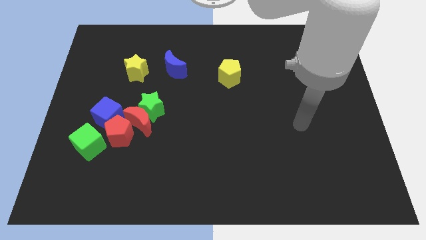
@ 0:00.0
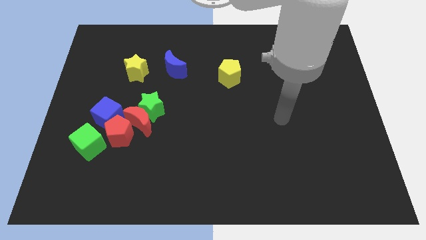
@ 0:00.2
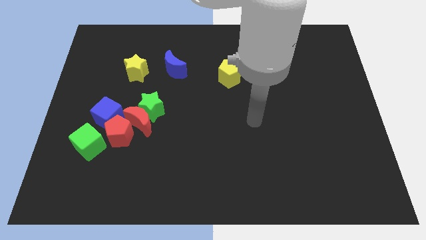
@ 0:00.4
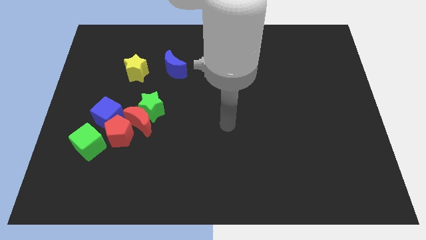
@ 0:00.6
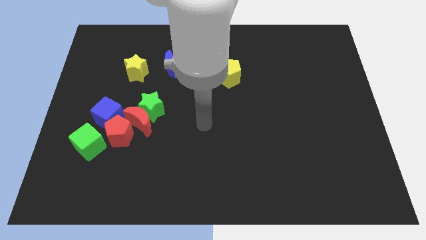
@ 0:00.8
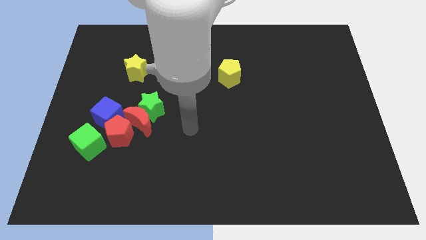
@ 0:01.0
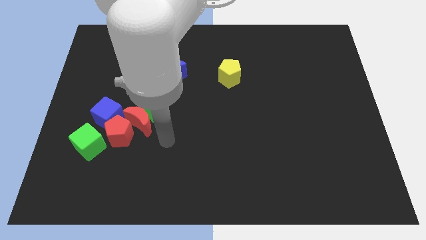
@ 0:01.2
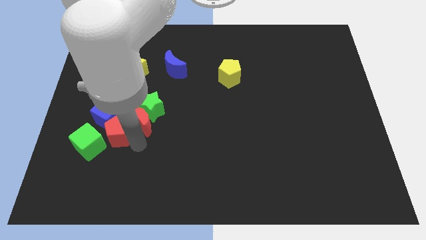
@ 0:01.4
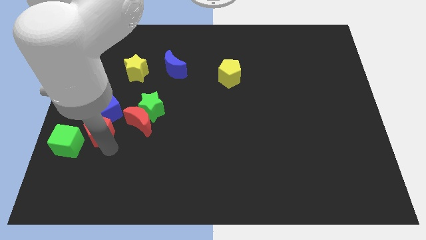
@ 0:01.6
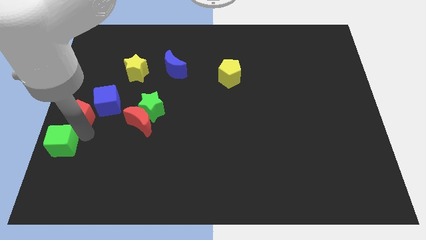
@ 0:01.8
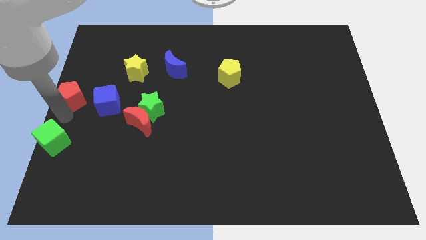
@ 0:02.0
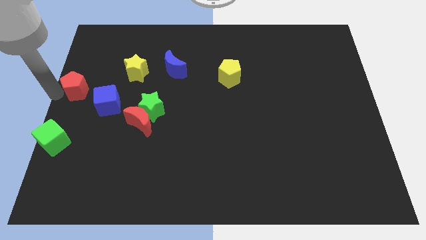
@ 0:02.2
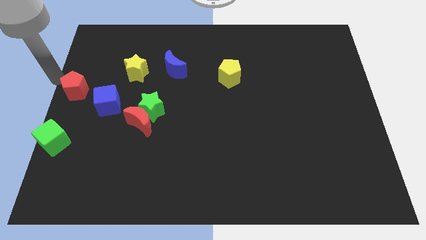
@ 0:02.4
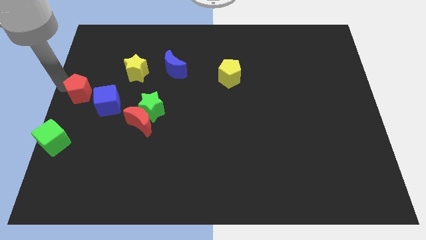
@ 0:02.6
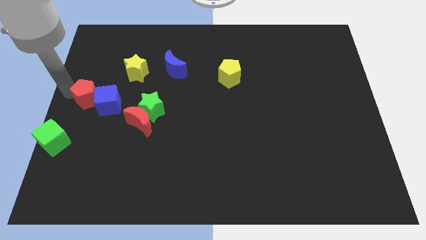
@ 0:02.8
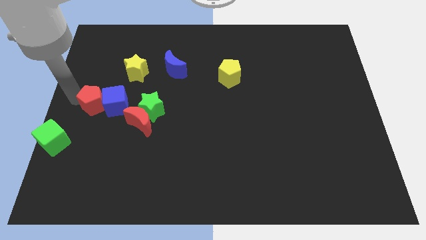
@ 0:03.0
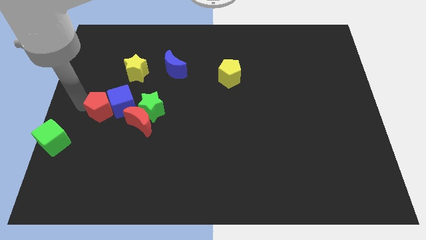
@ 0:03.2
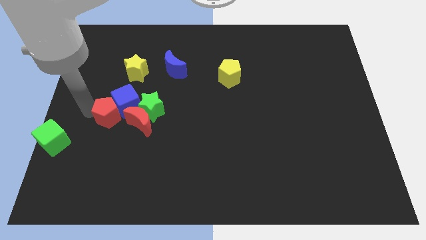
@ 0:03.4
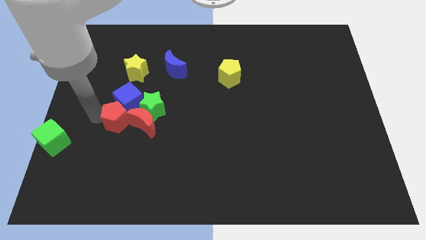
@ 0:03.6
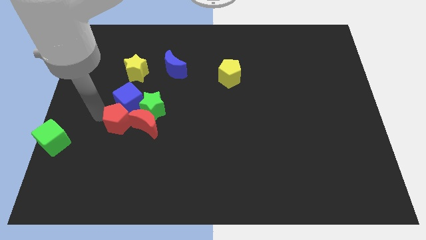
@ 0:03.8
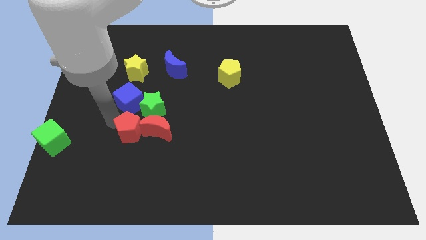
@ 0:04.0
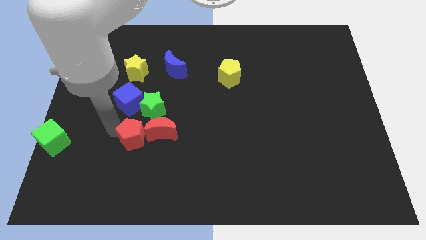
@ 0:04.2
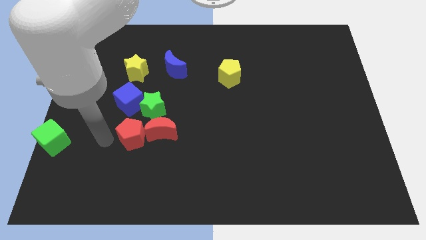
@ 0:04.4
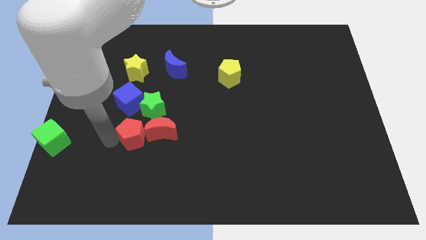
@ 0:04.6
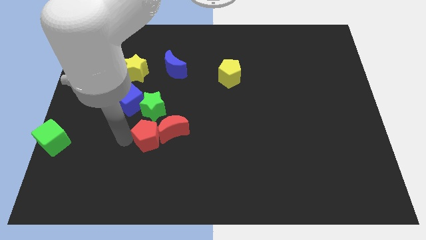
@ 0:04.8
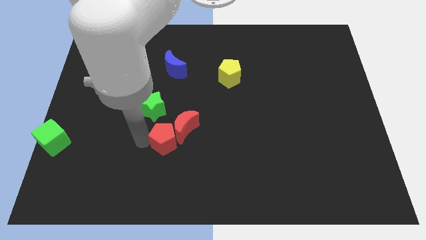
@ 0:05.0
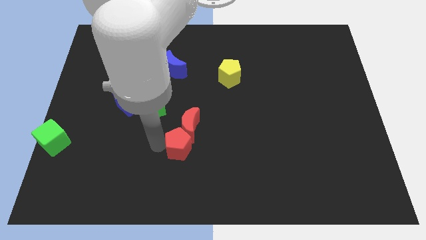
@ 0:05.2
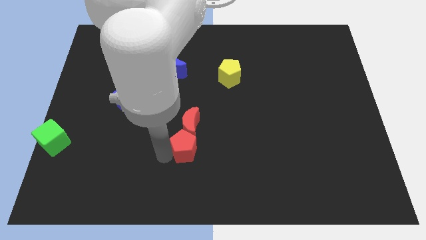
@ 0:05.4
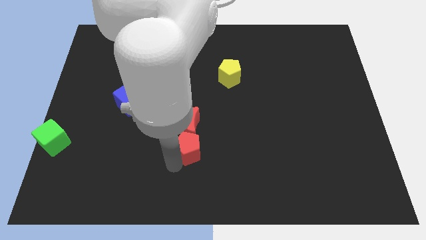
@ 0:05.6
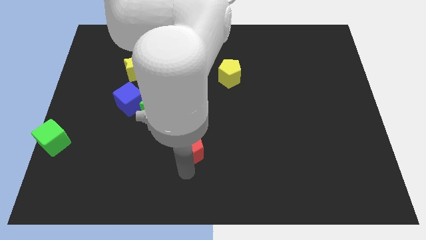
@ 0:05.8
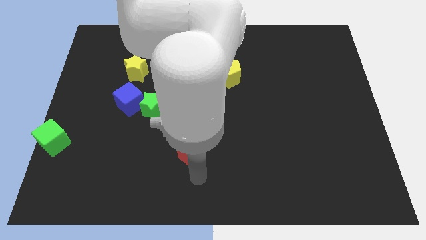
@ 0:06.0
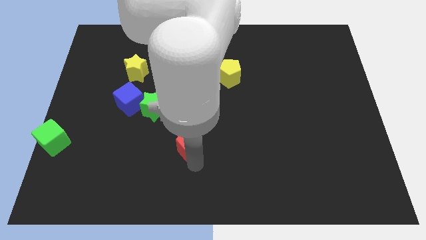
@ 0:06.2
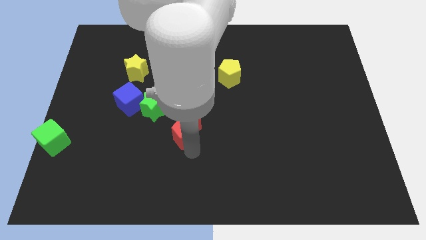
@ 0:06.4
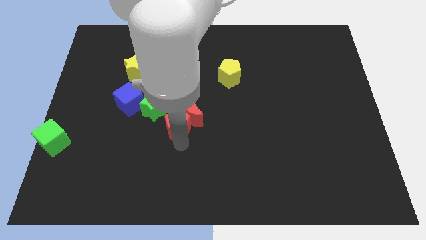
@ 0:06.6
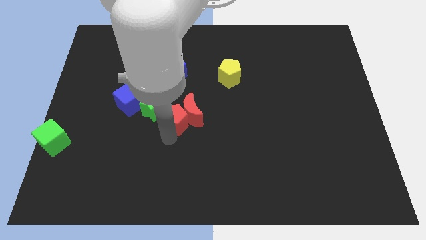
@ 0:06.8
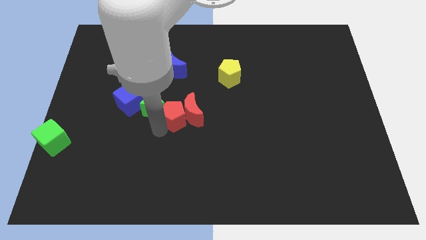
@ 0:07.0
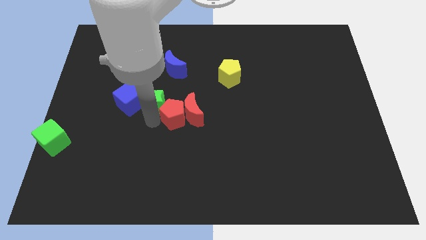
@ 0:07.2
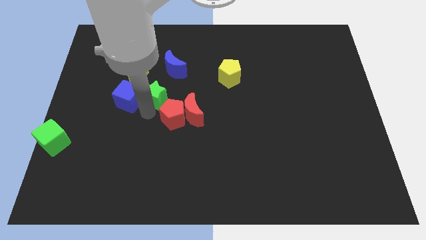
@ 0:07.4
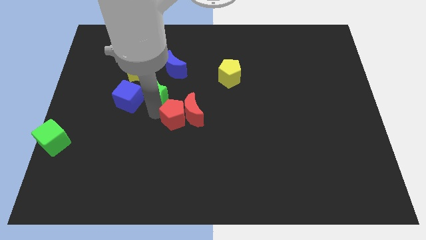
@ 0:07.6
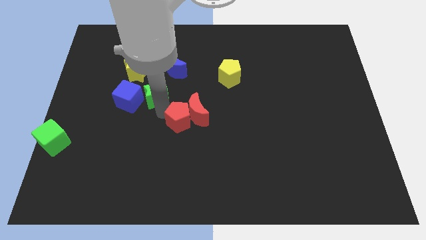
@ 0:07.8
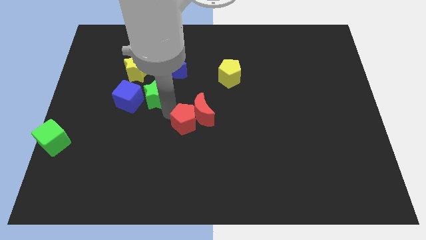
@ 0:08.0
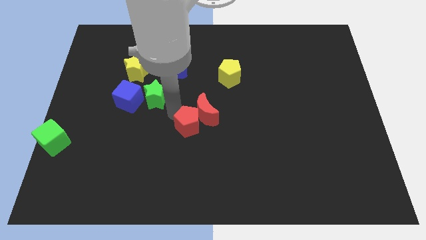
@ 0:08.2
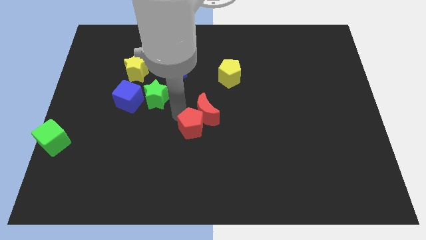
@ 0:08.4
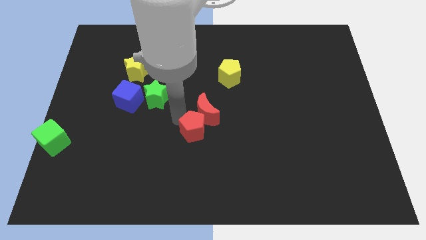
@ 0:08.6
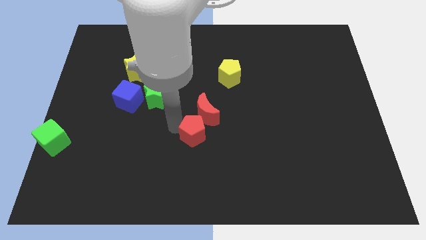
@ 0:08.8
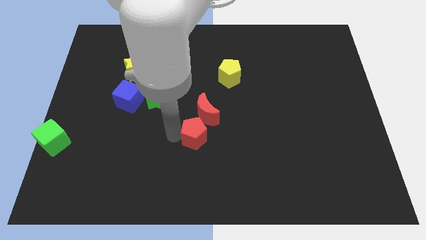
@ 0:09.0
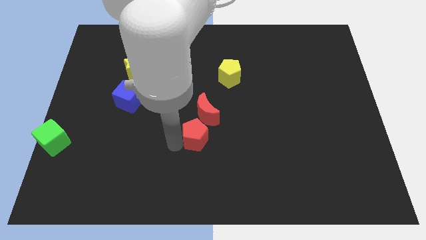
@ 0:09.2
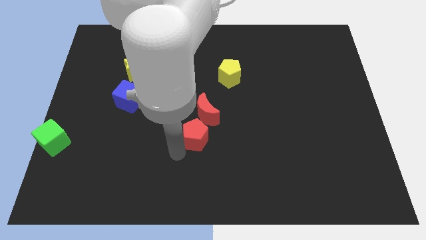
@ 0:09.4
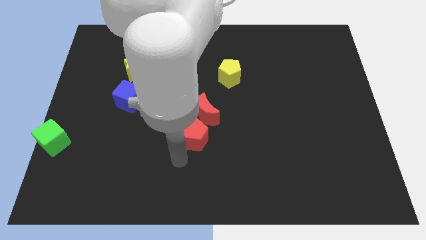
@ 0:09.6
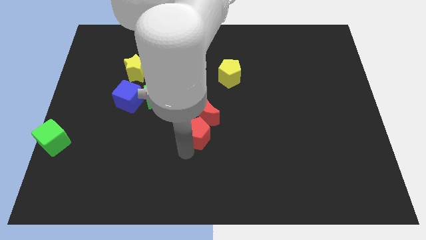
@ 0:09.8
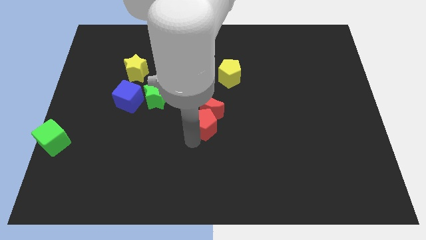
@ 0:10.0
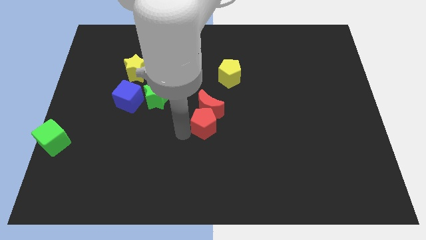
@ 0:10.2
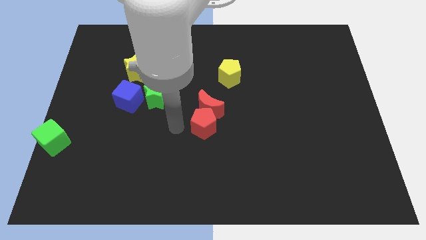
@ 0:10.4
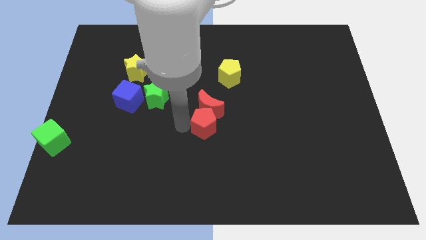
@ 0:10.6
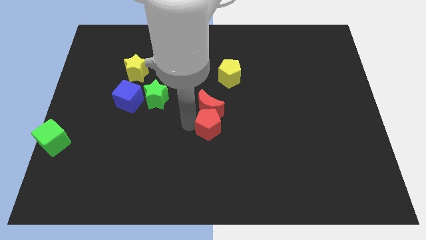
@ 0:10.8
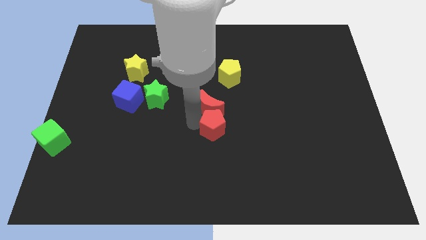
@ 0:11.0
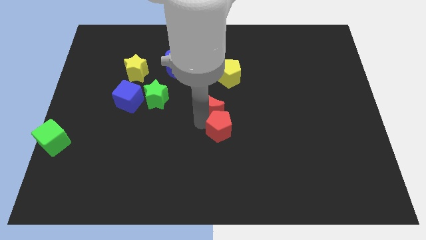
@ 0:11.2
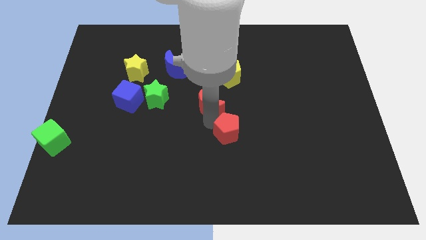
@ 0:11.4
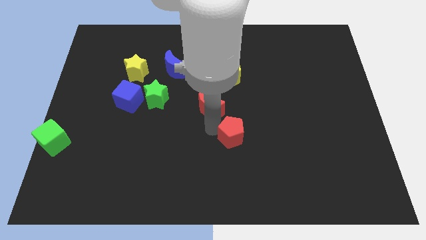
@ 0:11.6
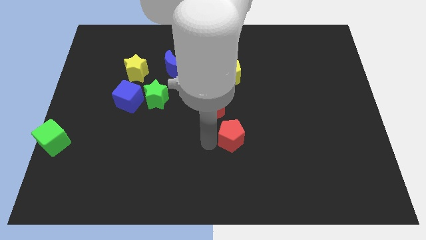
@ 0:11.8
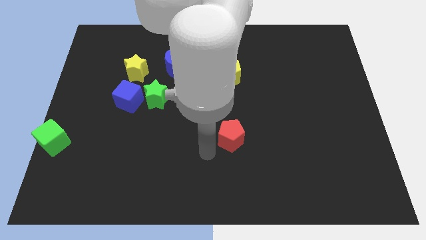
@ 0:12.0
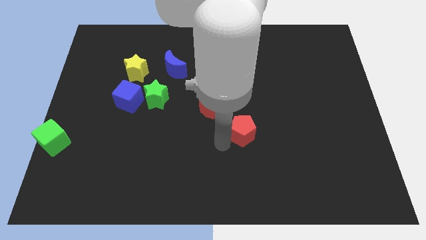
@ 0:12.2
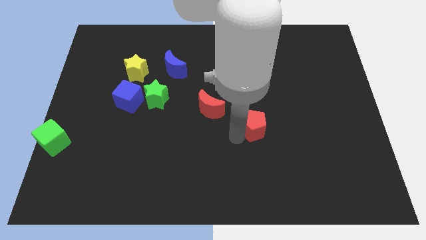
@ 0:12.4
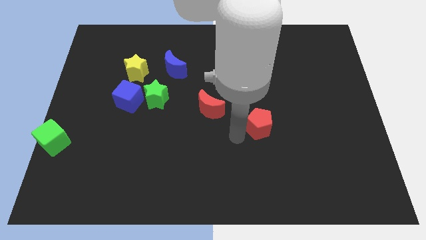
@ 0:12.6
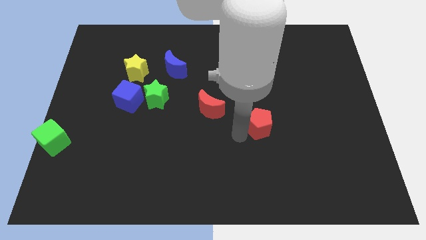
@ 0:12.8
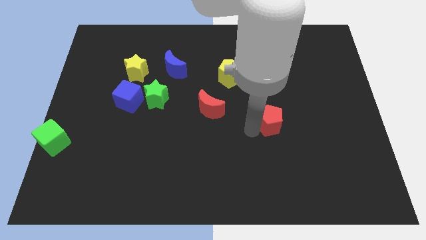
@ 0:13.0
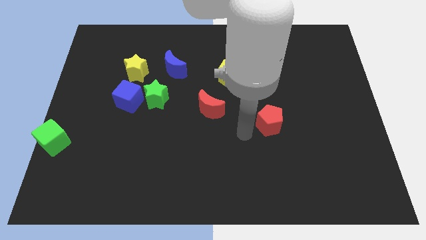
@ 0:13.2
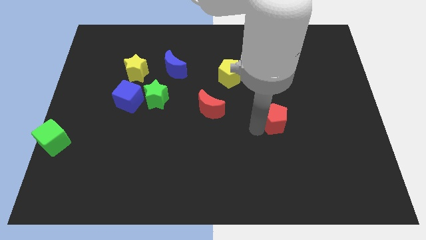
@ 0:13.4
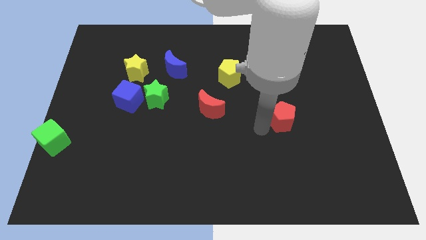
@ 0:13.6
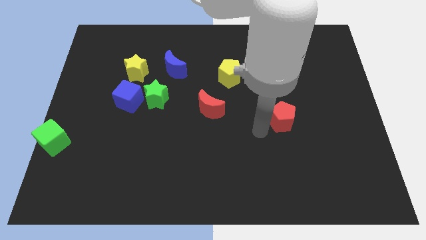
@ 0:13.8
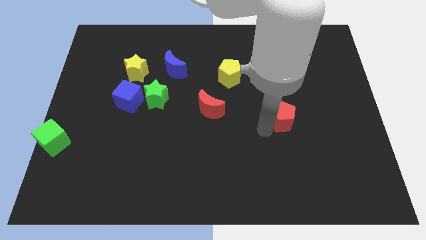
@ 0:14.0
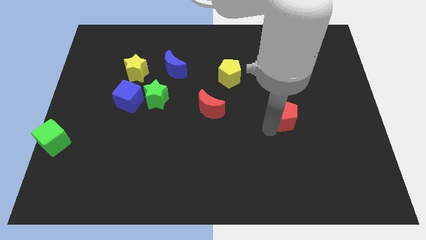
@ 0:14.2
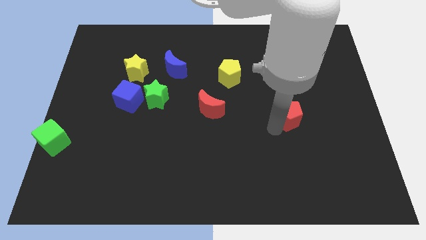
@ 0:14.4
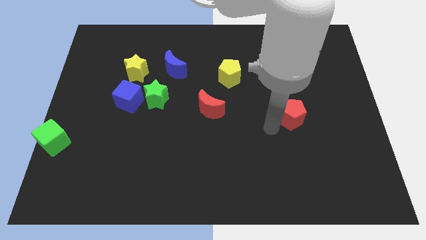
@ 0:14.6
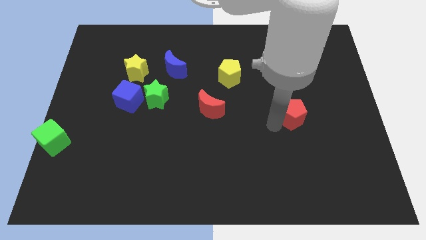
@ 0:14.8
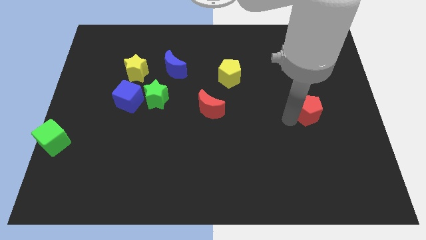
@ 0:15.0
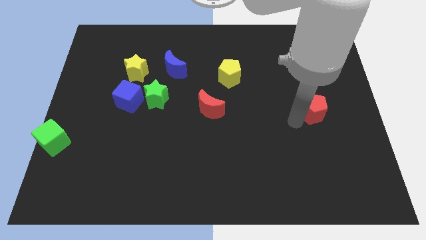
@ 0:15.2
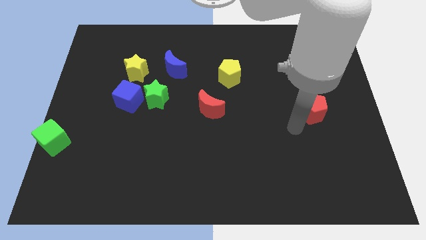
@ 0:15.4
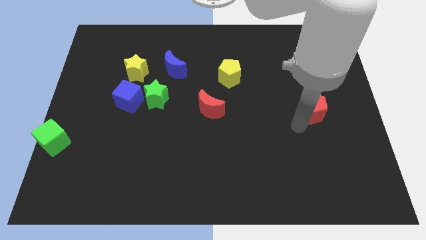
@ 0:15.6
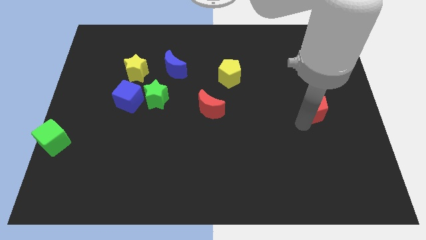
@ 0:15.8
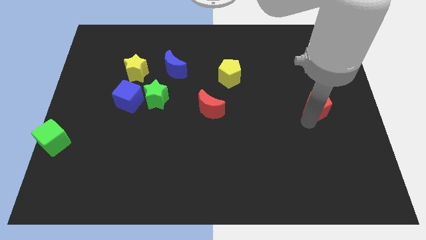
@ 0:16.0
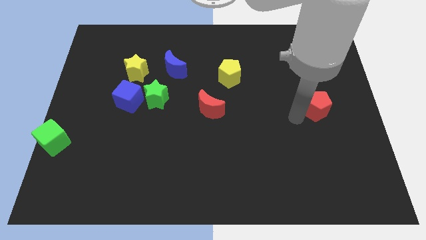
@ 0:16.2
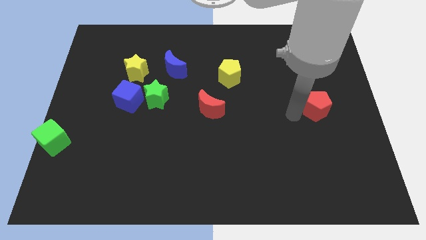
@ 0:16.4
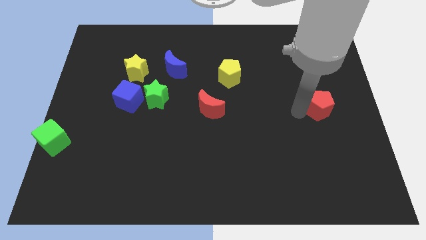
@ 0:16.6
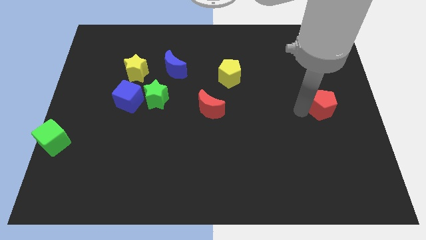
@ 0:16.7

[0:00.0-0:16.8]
put the red pentagon to the right side of the board
